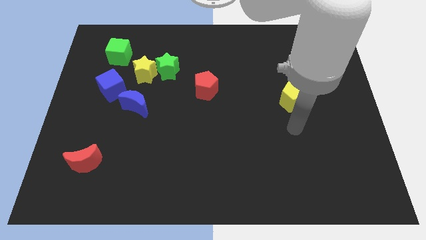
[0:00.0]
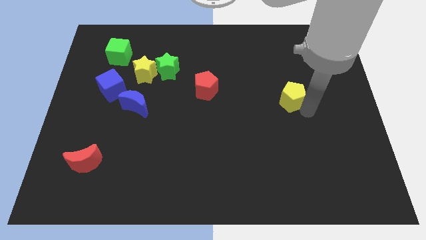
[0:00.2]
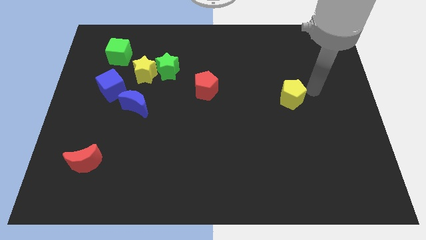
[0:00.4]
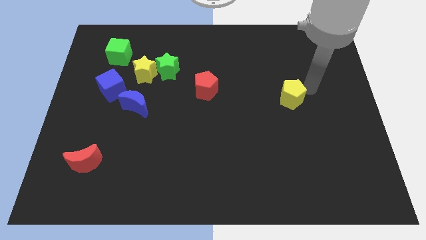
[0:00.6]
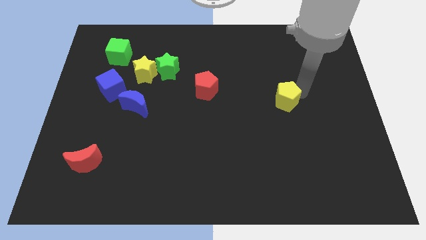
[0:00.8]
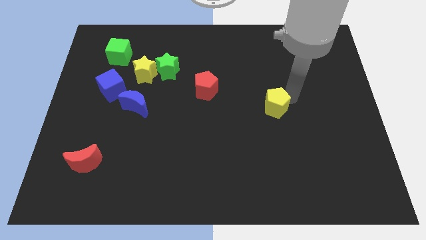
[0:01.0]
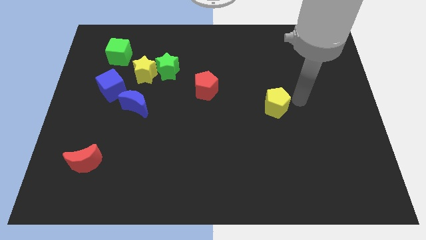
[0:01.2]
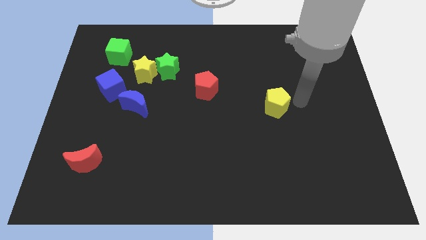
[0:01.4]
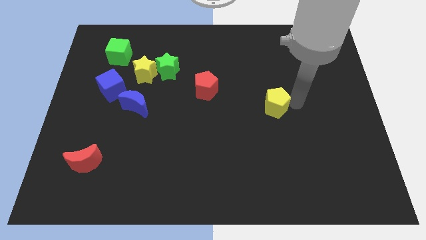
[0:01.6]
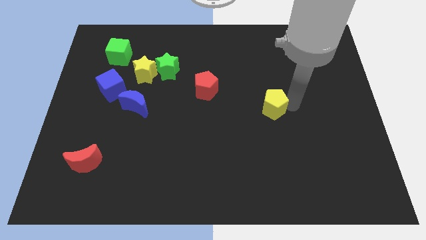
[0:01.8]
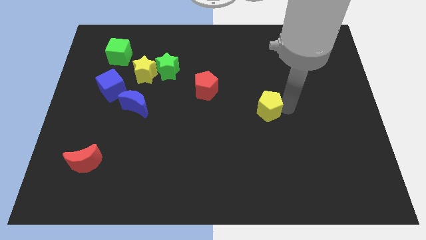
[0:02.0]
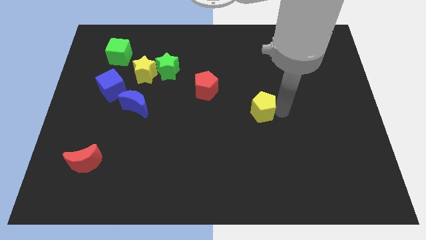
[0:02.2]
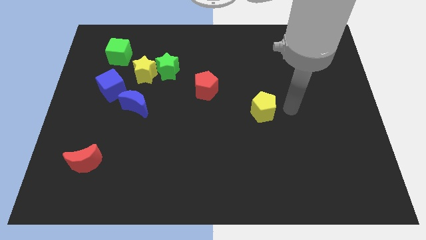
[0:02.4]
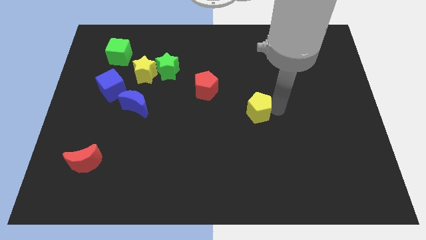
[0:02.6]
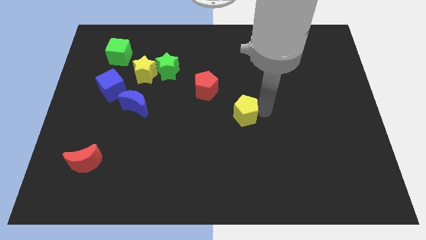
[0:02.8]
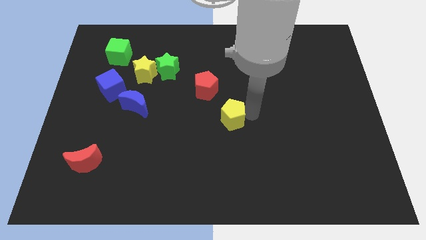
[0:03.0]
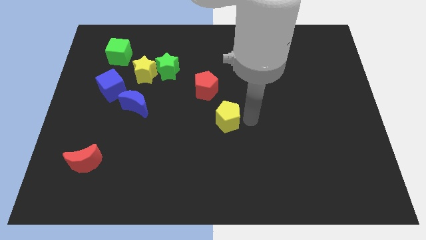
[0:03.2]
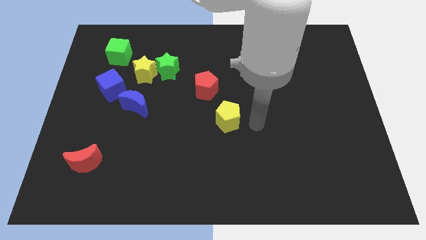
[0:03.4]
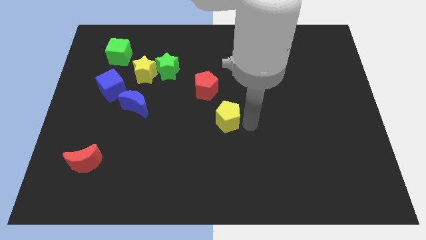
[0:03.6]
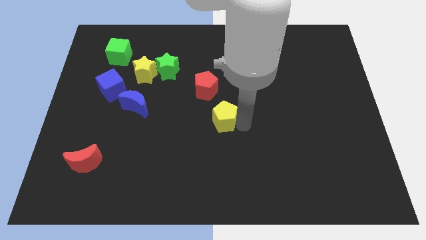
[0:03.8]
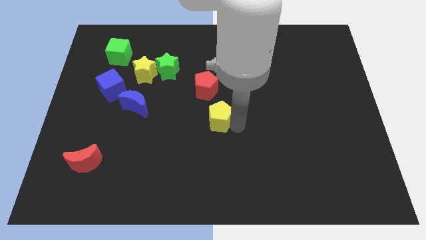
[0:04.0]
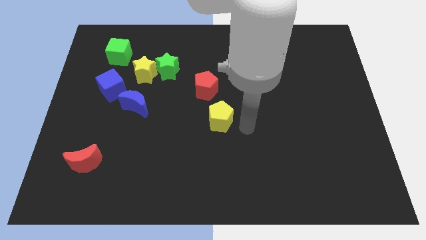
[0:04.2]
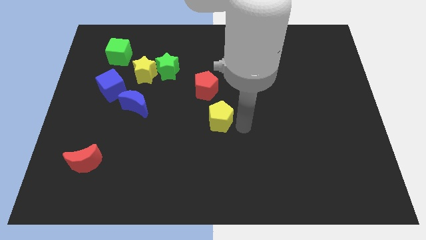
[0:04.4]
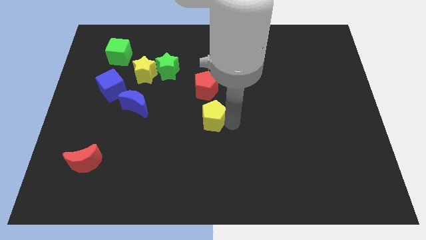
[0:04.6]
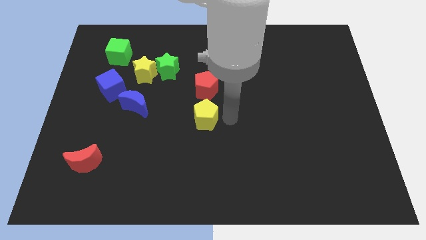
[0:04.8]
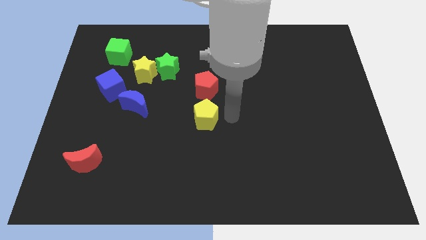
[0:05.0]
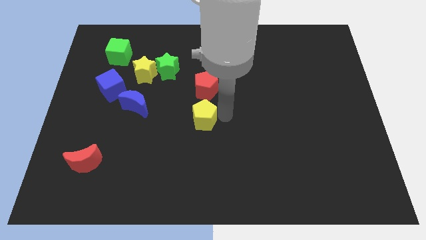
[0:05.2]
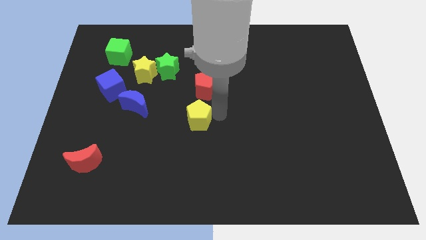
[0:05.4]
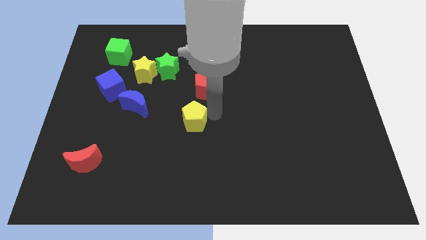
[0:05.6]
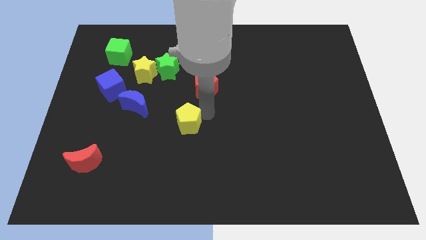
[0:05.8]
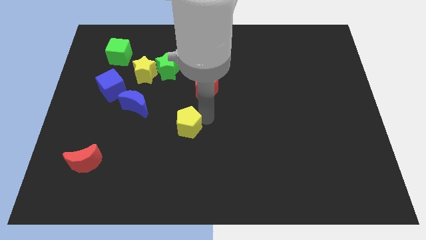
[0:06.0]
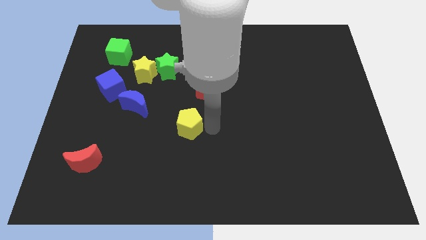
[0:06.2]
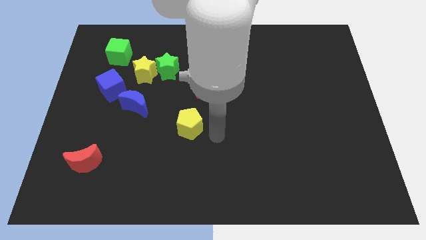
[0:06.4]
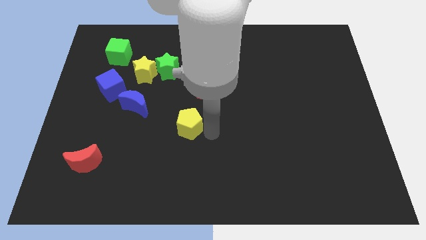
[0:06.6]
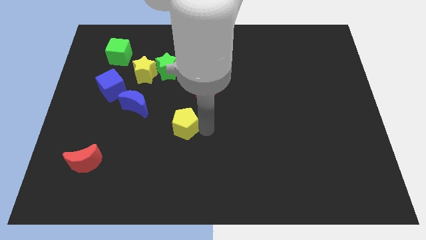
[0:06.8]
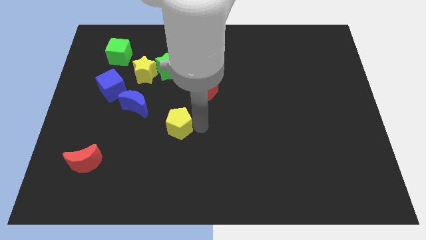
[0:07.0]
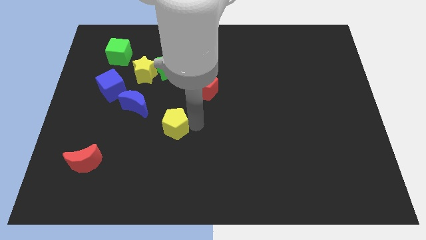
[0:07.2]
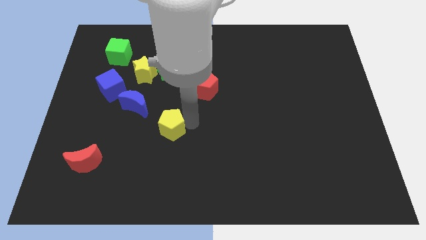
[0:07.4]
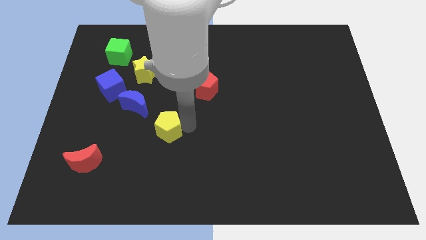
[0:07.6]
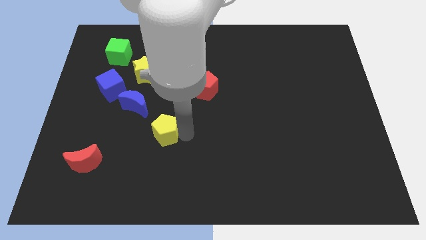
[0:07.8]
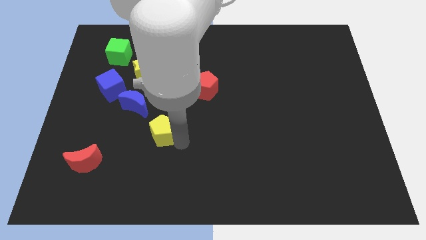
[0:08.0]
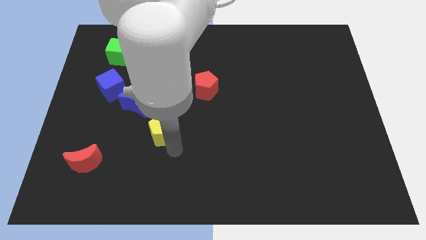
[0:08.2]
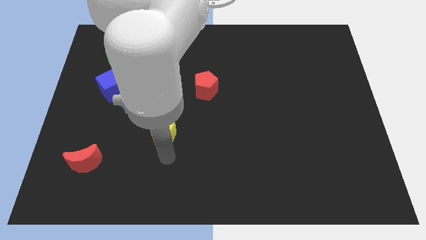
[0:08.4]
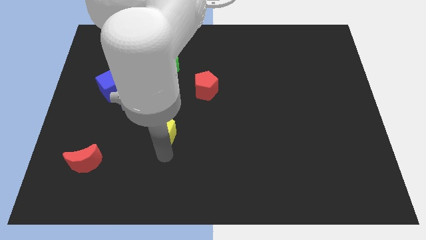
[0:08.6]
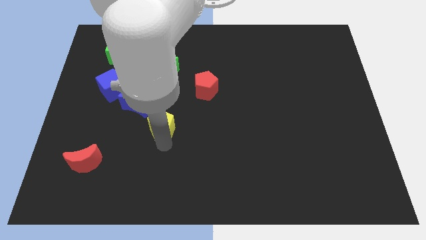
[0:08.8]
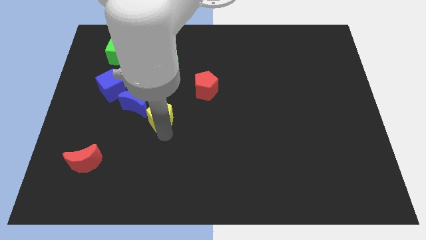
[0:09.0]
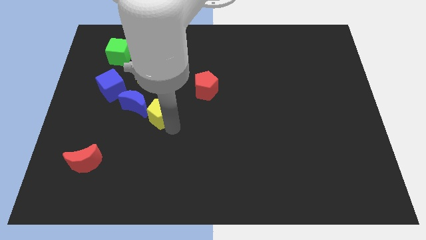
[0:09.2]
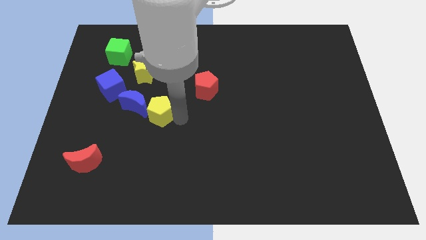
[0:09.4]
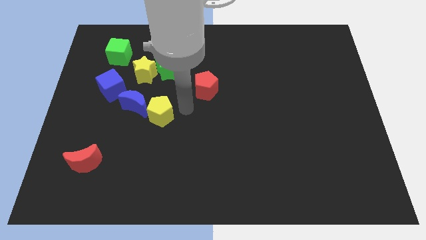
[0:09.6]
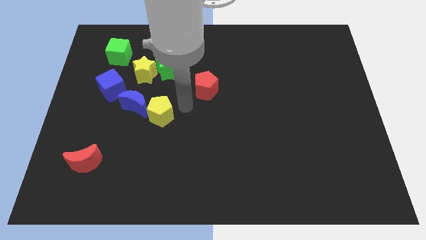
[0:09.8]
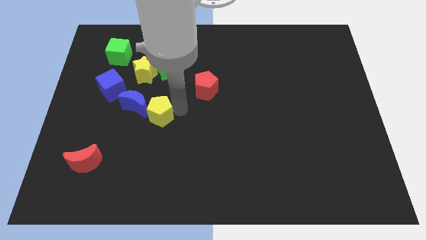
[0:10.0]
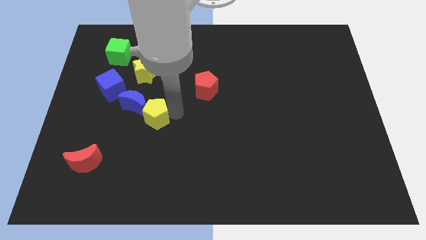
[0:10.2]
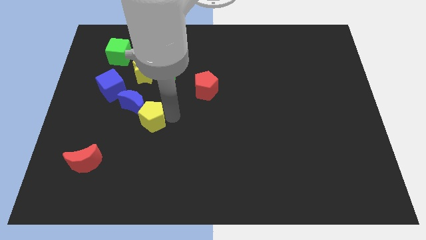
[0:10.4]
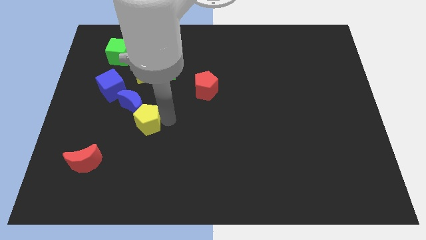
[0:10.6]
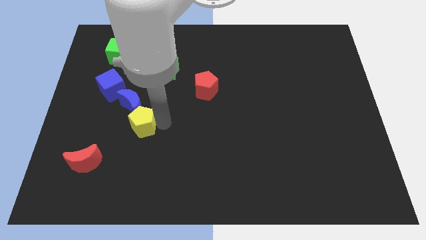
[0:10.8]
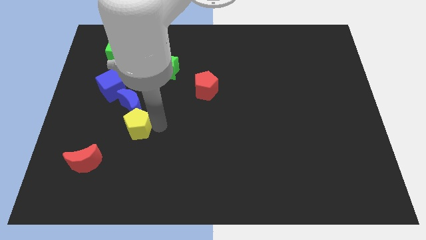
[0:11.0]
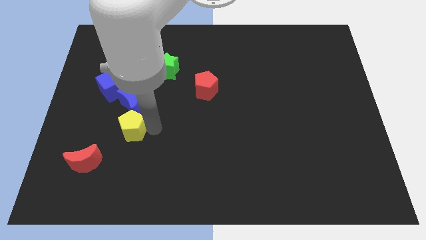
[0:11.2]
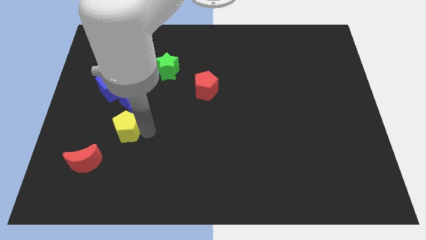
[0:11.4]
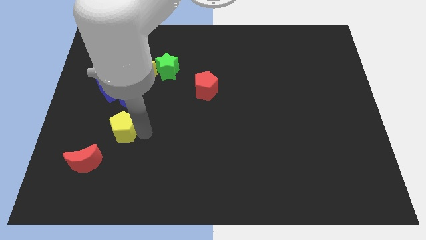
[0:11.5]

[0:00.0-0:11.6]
put the yellow pentagon below the blue cube

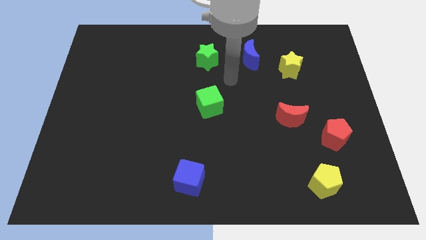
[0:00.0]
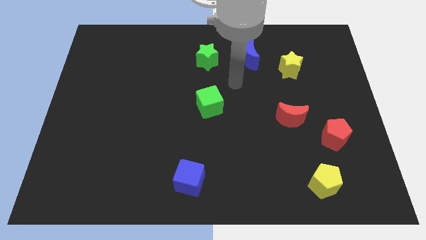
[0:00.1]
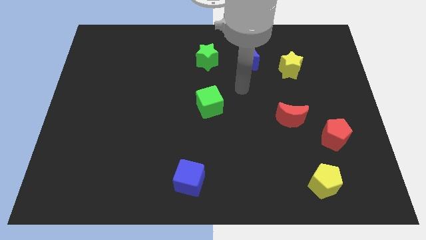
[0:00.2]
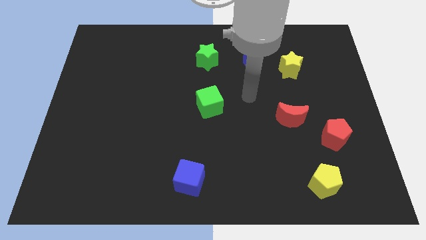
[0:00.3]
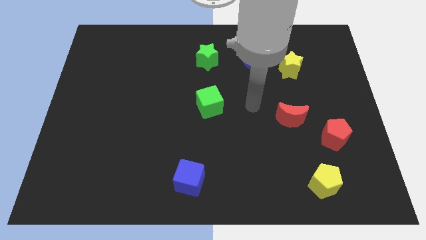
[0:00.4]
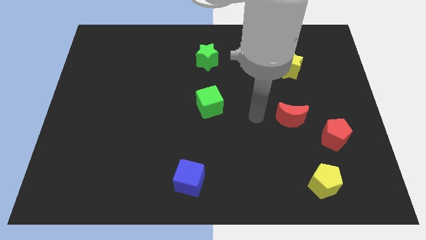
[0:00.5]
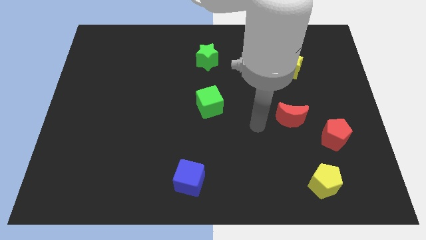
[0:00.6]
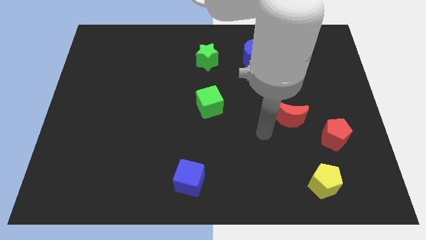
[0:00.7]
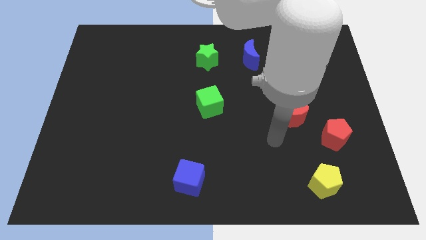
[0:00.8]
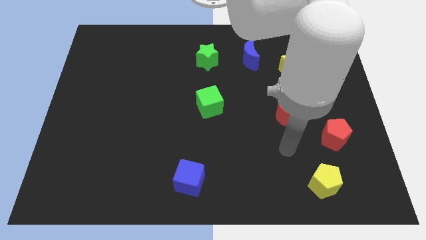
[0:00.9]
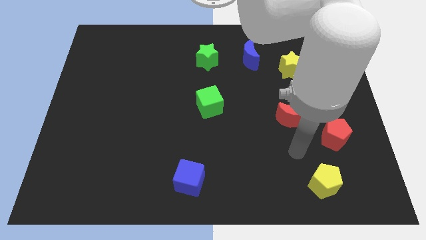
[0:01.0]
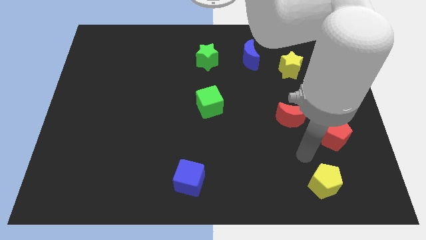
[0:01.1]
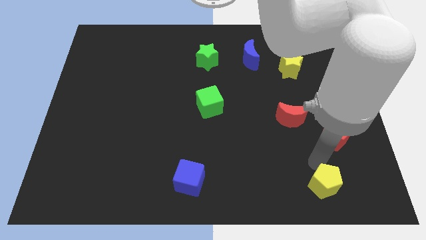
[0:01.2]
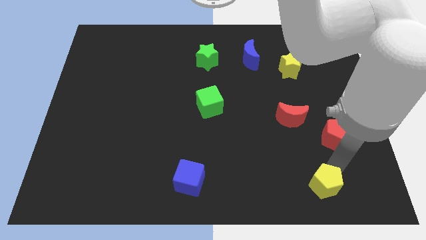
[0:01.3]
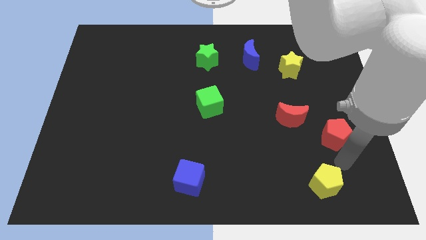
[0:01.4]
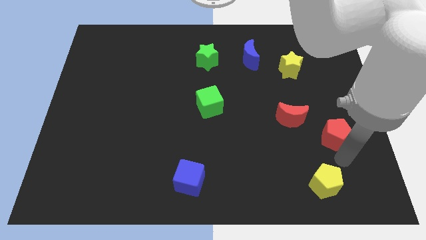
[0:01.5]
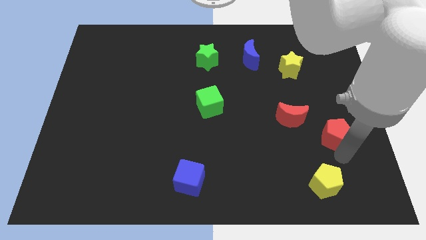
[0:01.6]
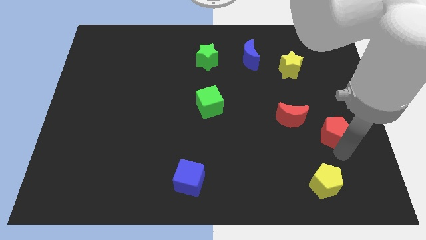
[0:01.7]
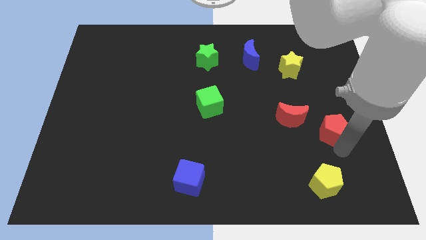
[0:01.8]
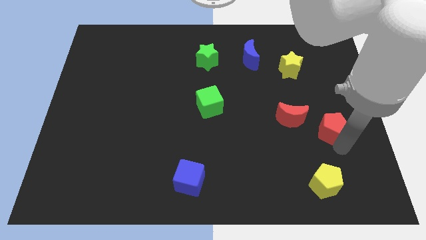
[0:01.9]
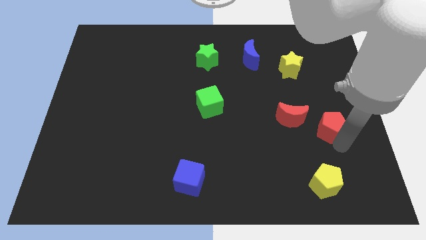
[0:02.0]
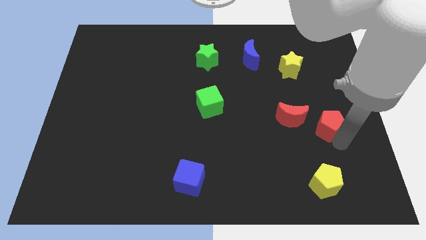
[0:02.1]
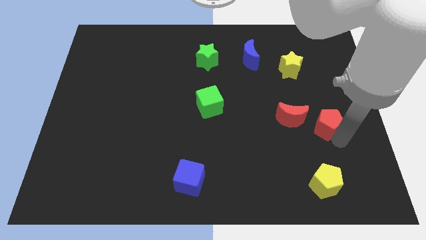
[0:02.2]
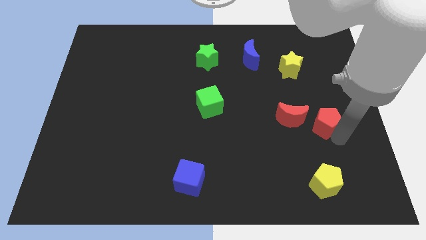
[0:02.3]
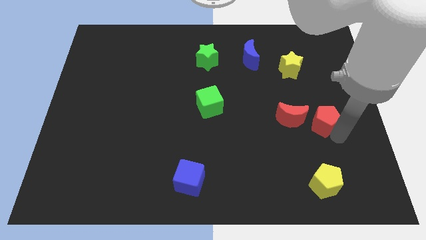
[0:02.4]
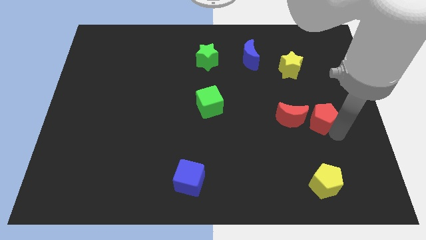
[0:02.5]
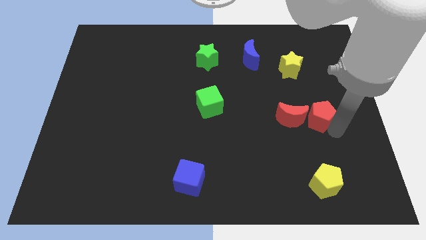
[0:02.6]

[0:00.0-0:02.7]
slide the red pentagon to the top right of the red moon
